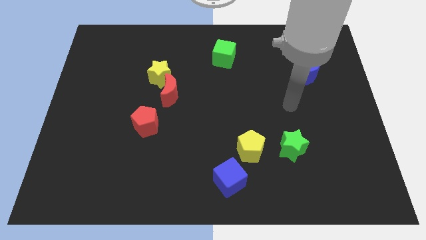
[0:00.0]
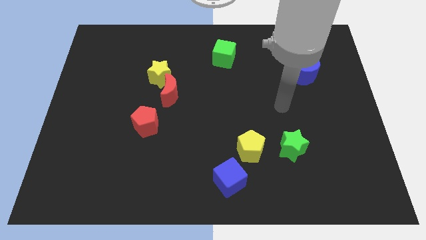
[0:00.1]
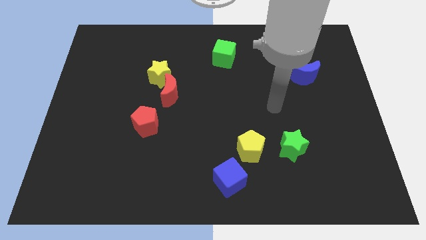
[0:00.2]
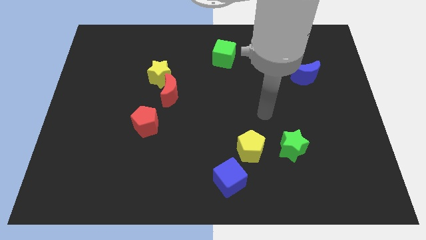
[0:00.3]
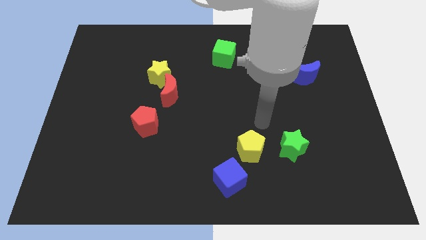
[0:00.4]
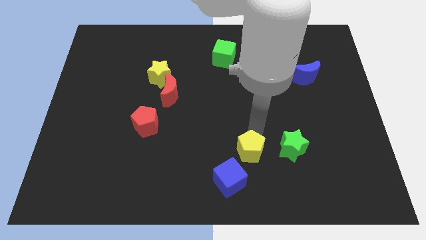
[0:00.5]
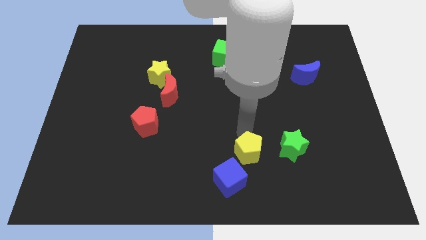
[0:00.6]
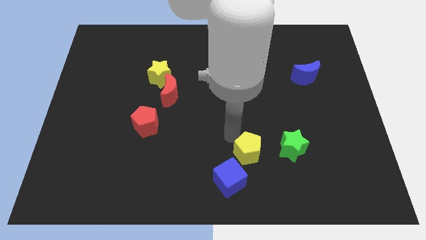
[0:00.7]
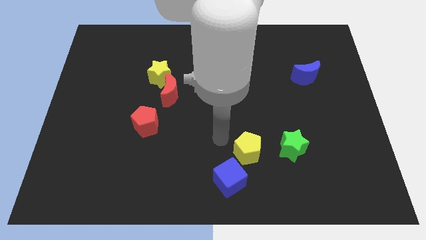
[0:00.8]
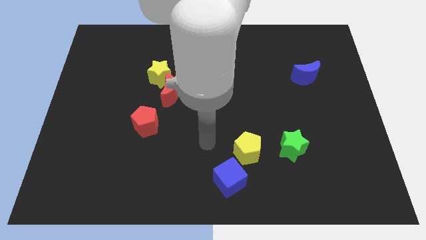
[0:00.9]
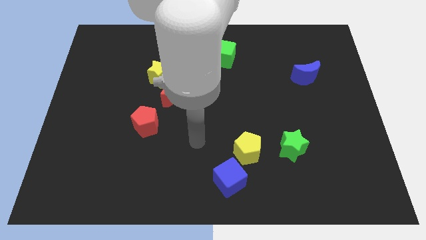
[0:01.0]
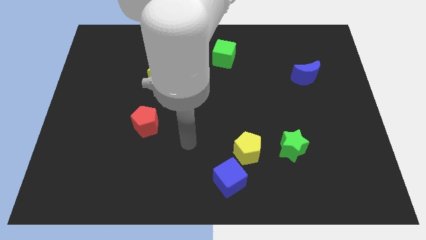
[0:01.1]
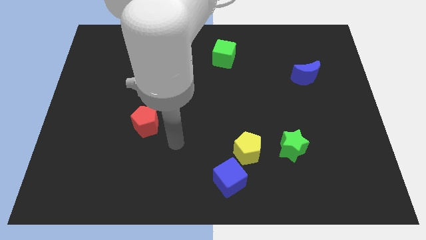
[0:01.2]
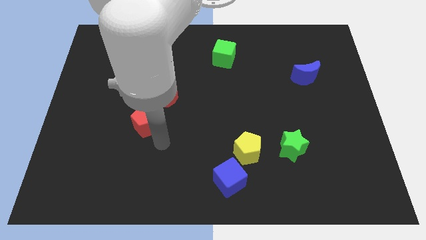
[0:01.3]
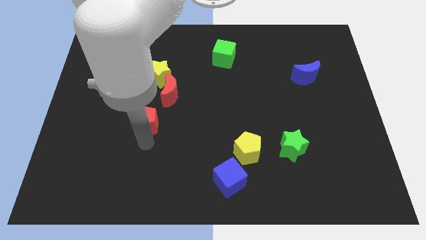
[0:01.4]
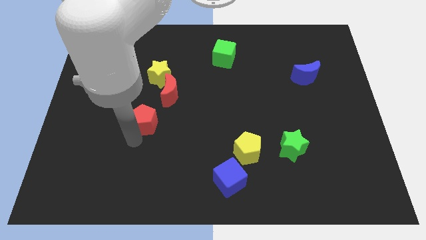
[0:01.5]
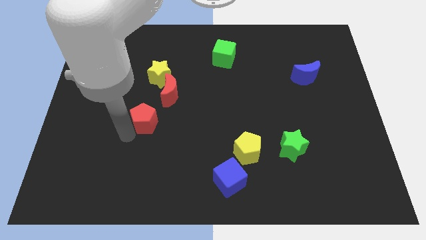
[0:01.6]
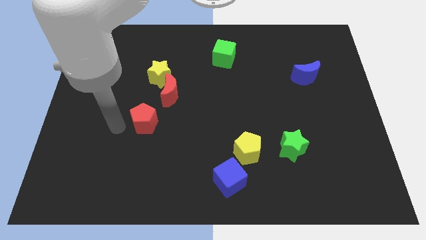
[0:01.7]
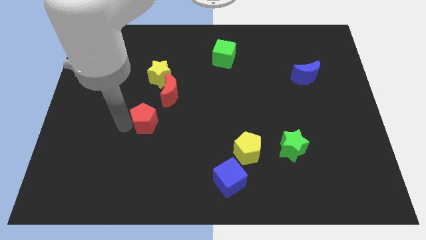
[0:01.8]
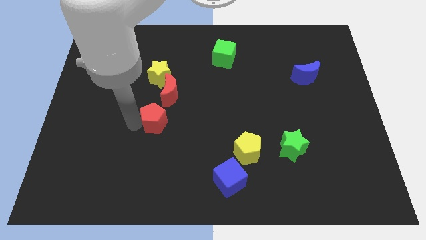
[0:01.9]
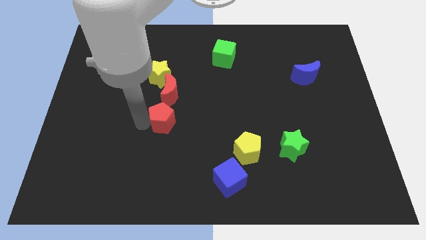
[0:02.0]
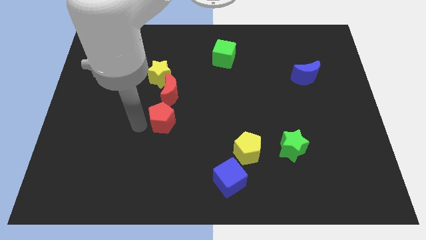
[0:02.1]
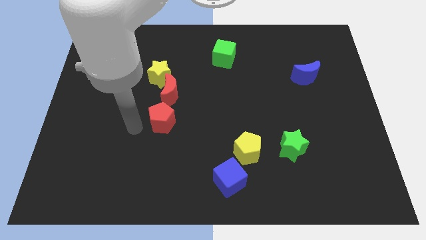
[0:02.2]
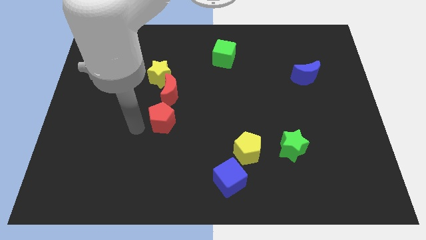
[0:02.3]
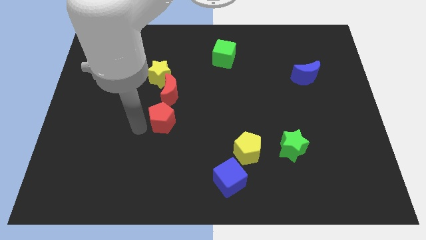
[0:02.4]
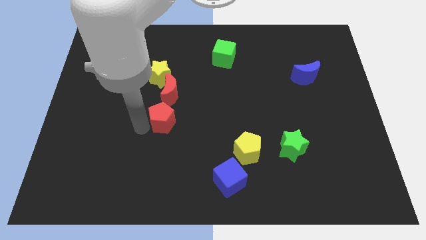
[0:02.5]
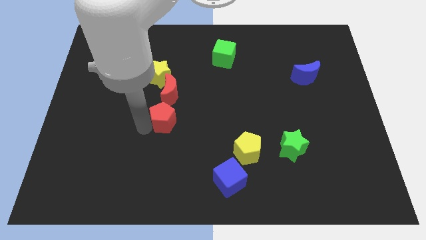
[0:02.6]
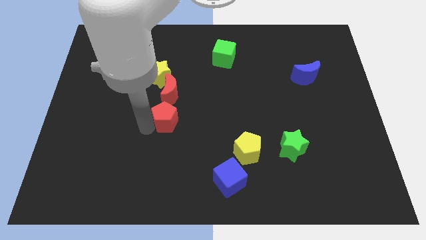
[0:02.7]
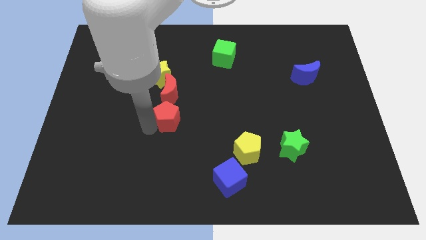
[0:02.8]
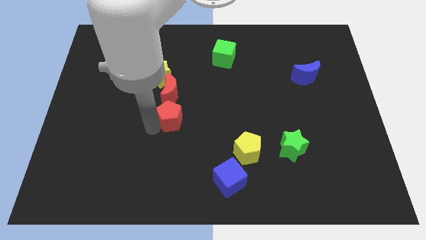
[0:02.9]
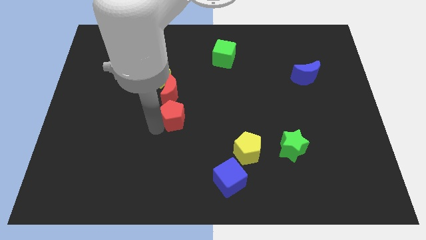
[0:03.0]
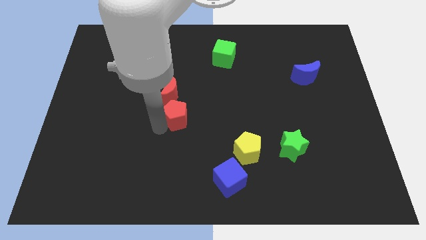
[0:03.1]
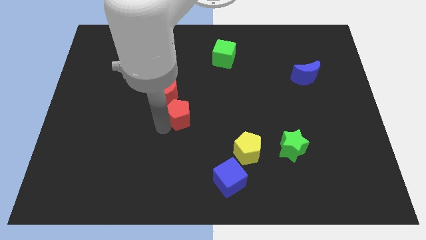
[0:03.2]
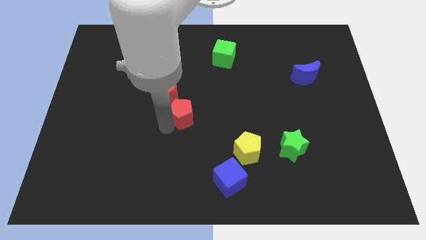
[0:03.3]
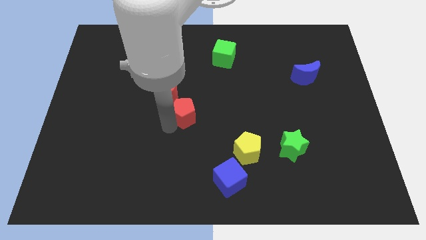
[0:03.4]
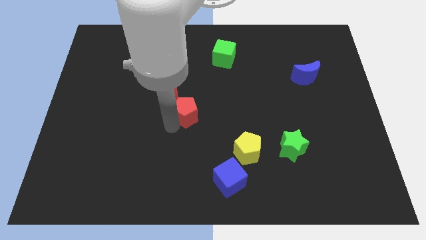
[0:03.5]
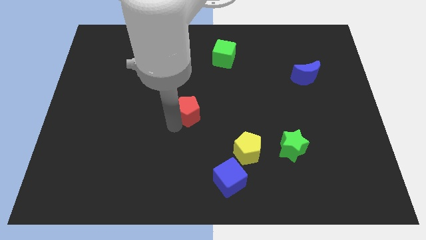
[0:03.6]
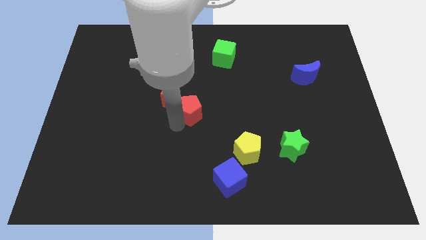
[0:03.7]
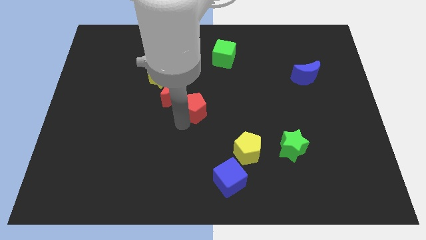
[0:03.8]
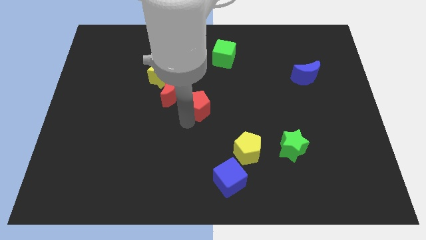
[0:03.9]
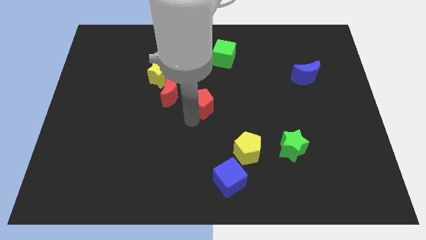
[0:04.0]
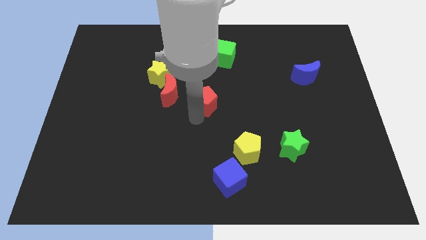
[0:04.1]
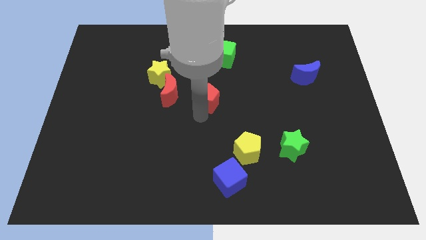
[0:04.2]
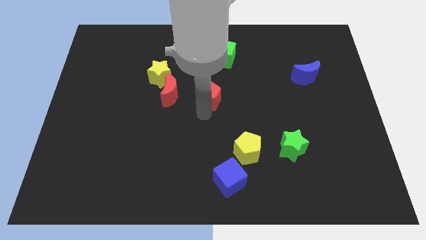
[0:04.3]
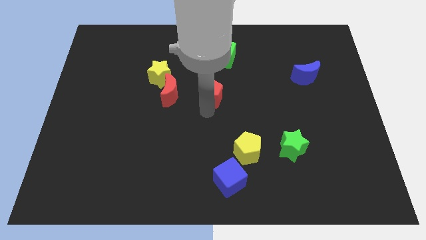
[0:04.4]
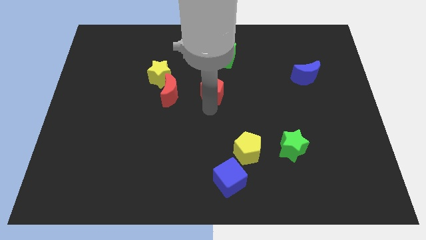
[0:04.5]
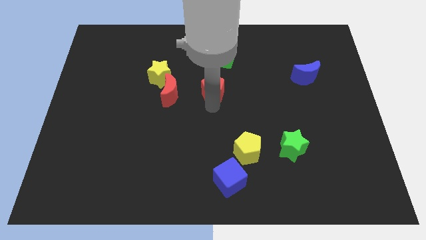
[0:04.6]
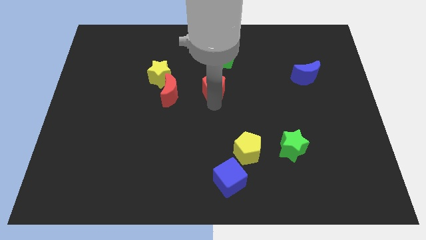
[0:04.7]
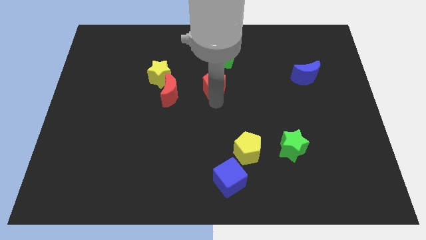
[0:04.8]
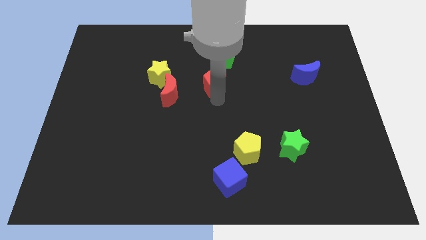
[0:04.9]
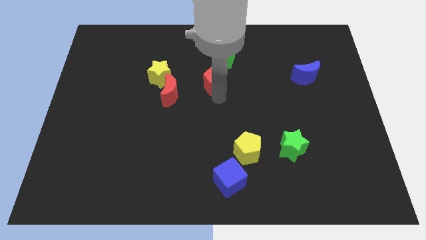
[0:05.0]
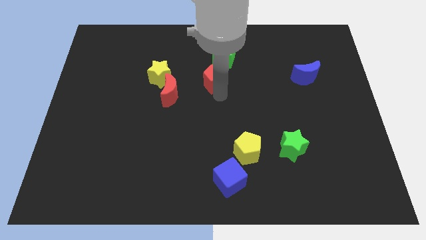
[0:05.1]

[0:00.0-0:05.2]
slide the red pentagon diagonally down and to the left of the green cube

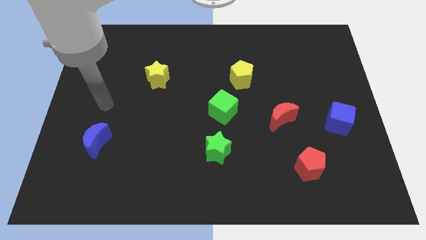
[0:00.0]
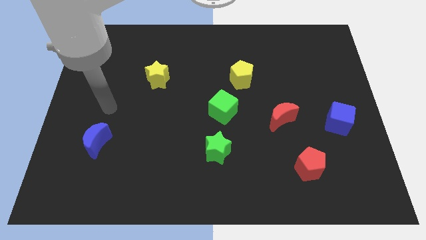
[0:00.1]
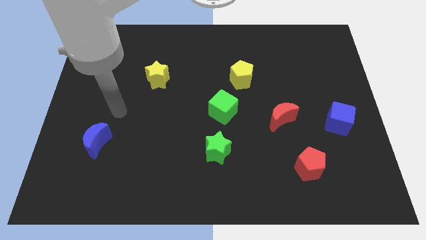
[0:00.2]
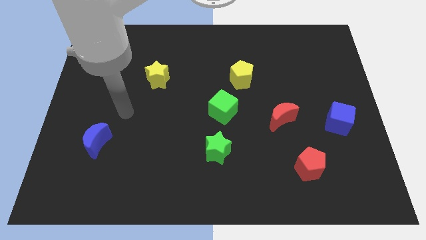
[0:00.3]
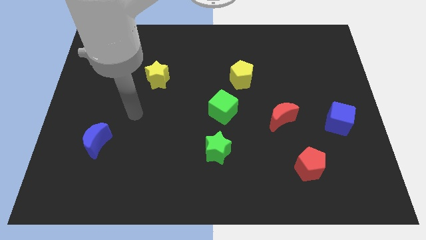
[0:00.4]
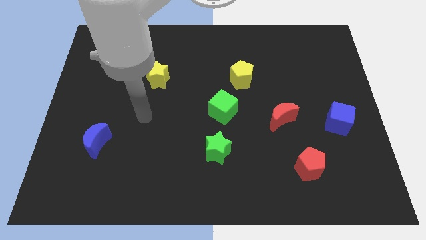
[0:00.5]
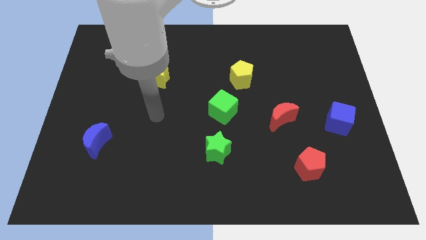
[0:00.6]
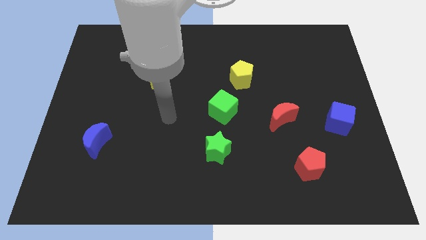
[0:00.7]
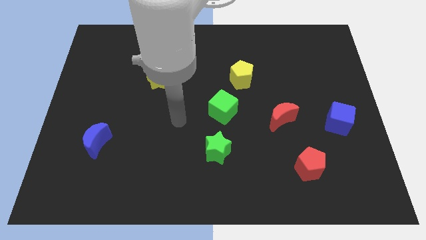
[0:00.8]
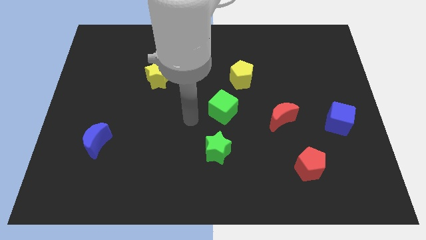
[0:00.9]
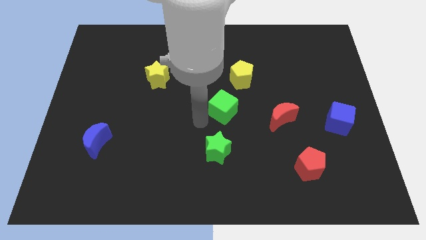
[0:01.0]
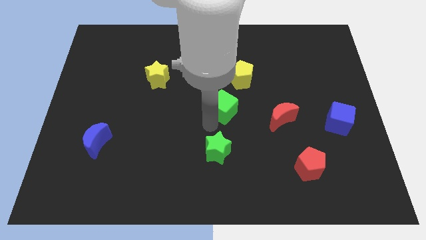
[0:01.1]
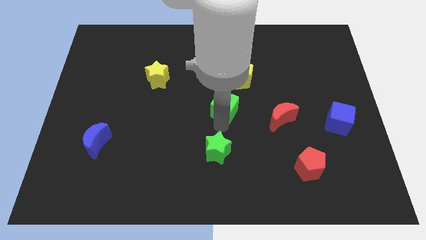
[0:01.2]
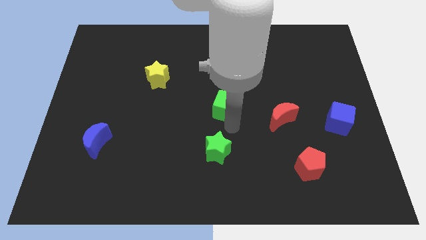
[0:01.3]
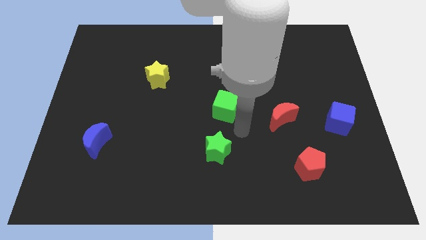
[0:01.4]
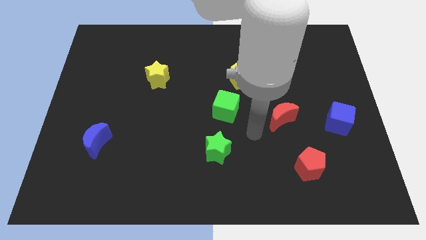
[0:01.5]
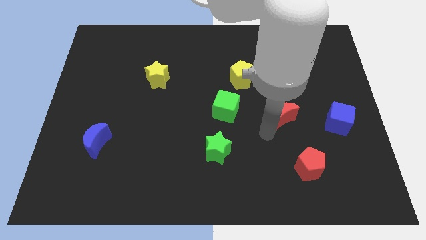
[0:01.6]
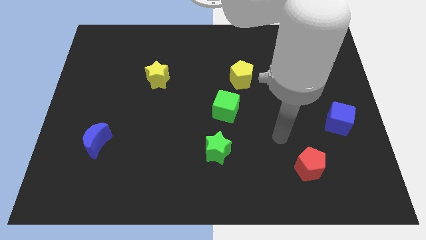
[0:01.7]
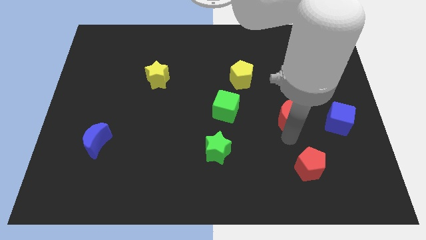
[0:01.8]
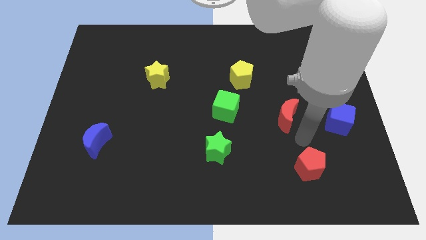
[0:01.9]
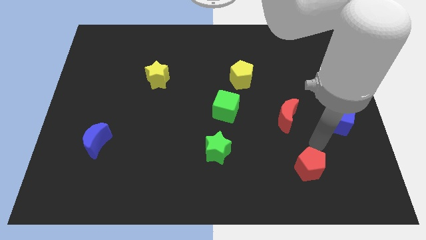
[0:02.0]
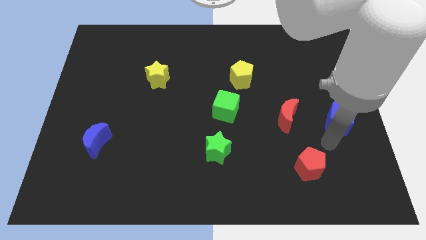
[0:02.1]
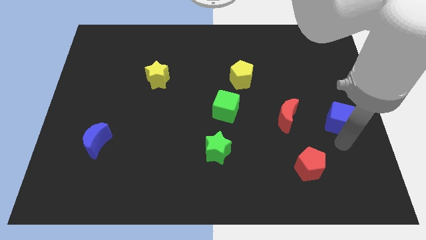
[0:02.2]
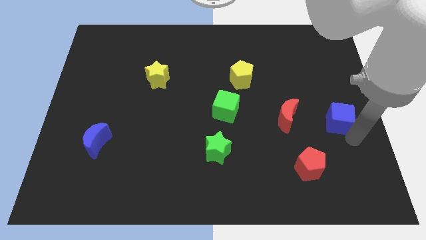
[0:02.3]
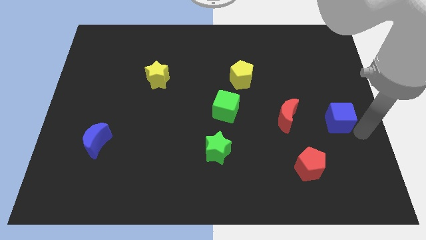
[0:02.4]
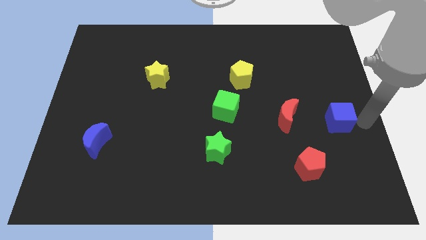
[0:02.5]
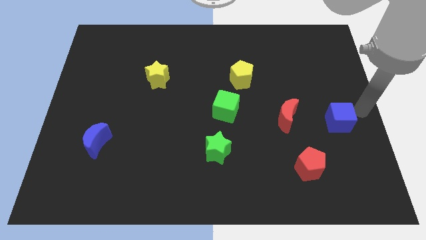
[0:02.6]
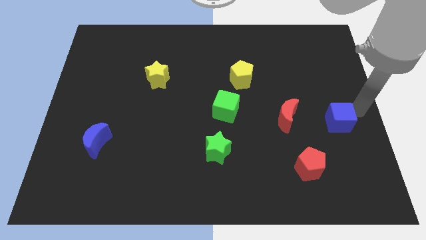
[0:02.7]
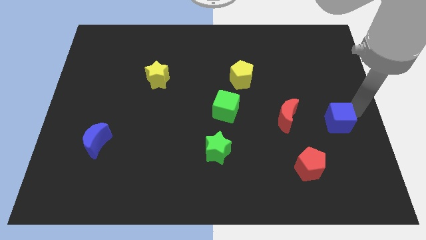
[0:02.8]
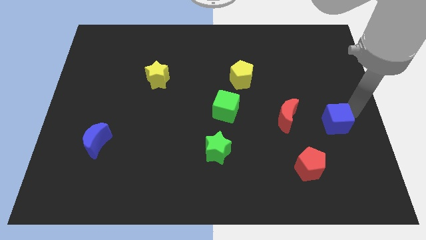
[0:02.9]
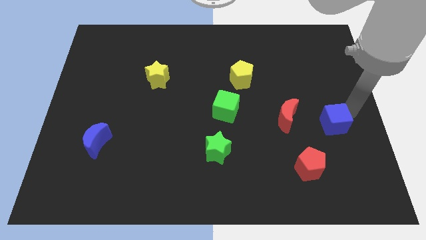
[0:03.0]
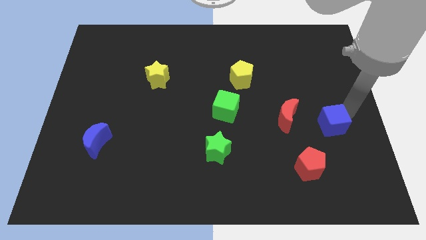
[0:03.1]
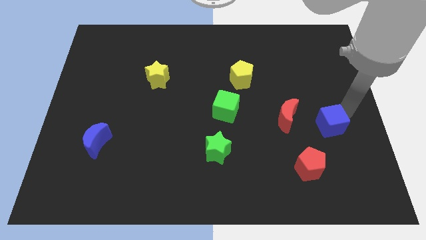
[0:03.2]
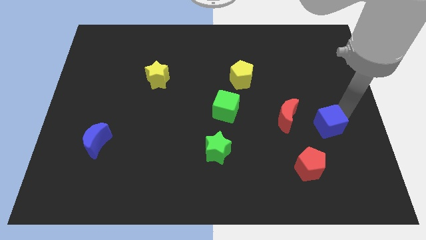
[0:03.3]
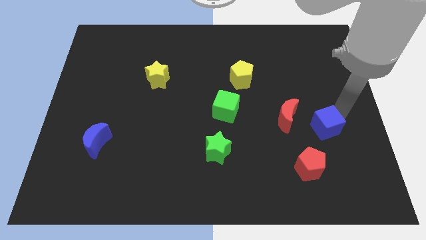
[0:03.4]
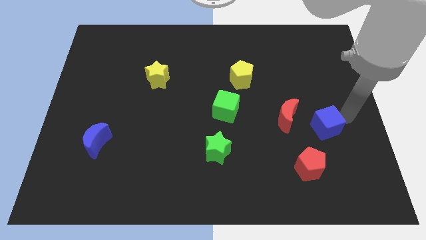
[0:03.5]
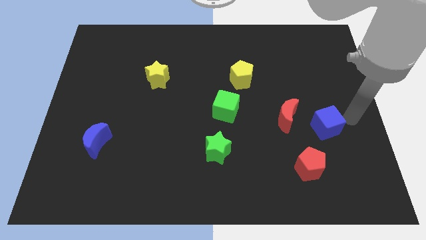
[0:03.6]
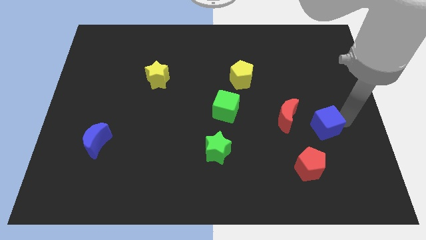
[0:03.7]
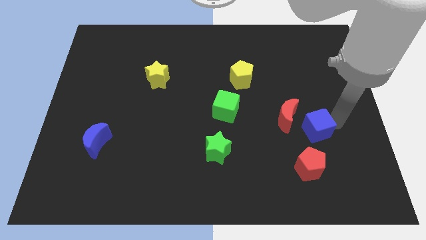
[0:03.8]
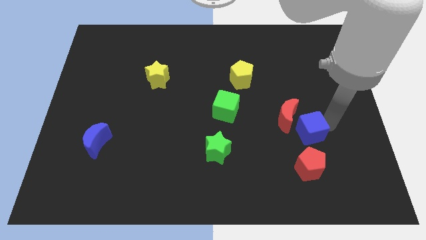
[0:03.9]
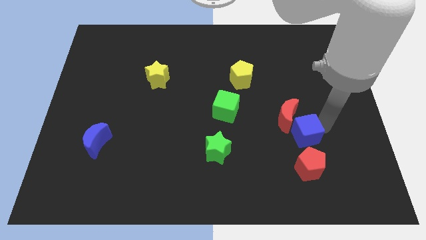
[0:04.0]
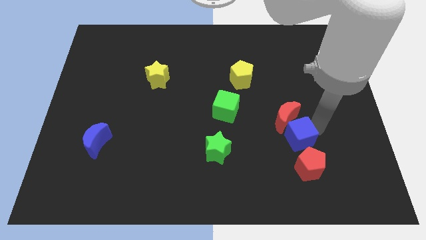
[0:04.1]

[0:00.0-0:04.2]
move the blue cube diagonally up and to the left of the red pentagon
